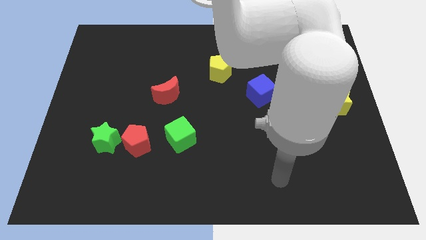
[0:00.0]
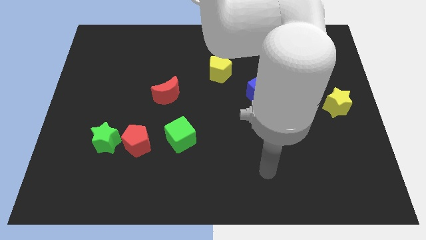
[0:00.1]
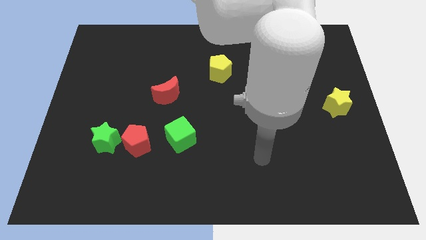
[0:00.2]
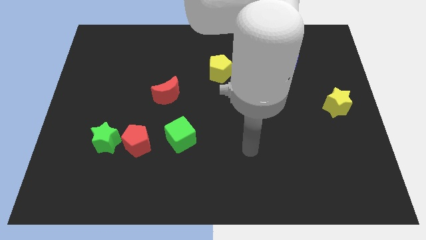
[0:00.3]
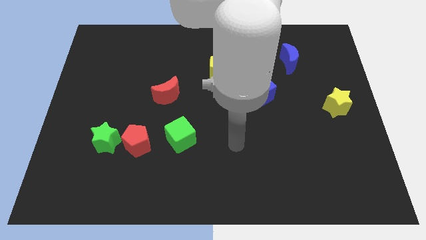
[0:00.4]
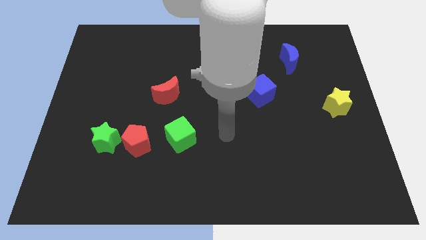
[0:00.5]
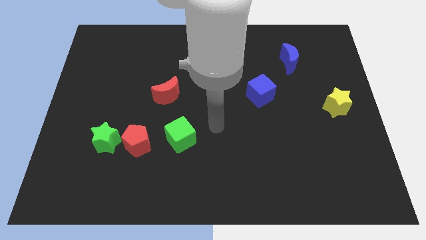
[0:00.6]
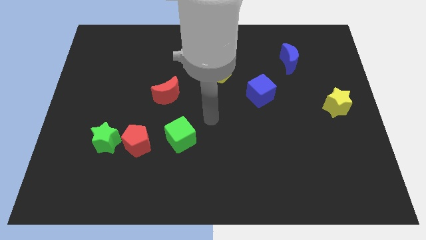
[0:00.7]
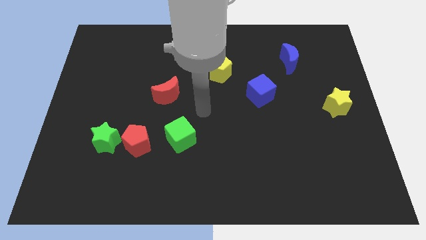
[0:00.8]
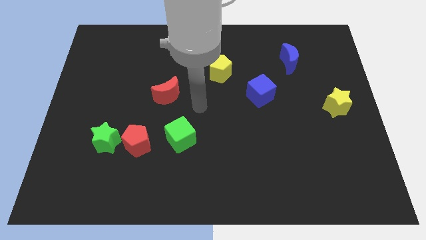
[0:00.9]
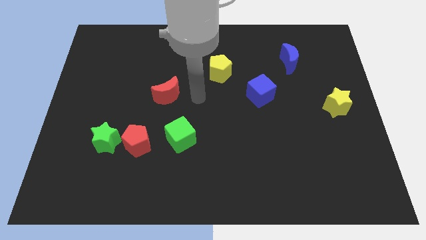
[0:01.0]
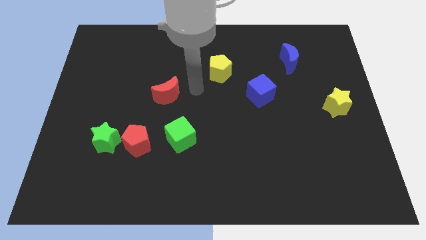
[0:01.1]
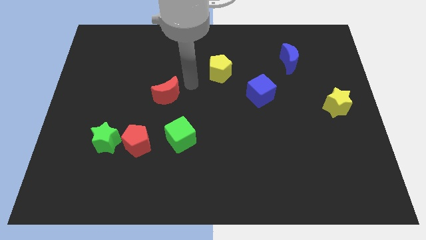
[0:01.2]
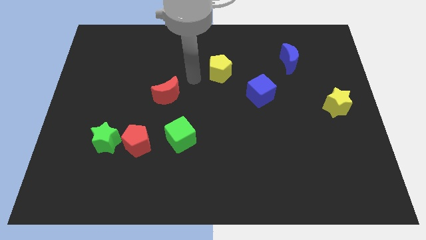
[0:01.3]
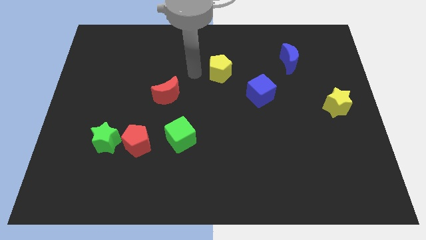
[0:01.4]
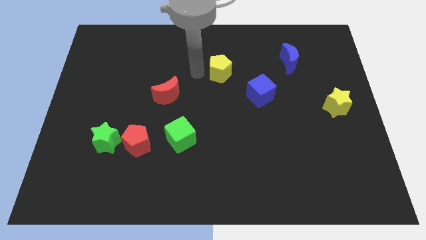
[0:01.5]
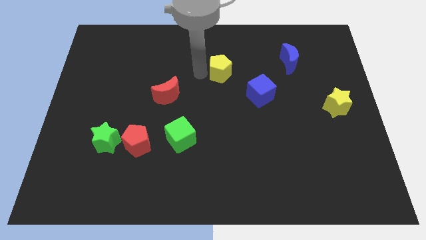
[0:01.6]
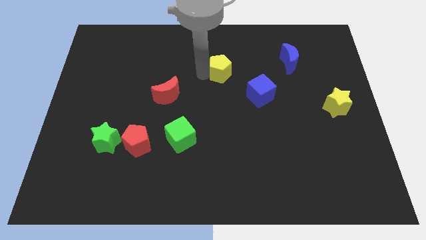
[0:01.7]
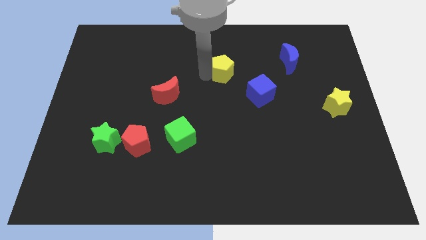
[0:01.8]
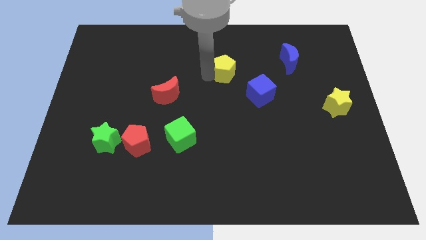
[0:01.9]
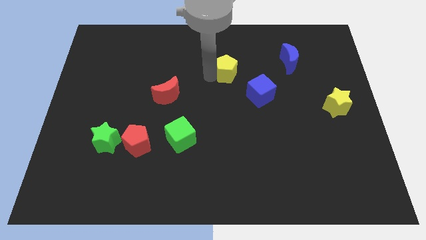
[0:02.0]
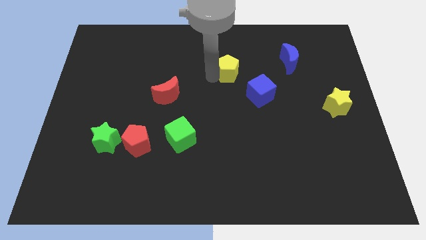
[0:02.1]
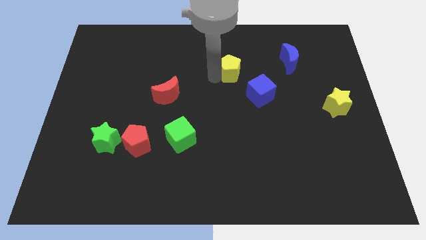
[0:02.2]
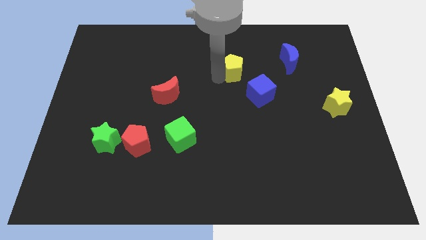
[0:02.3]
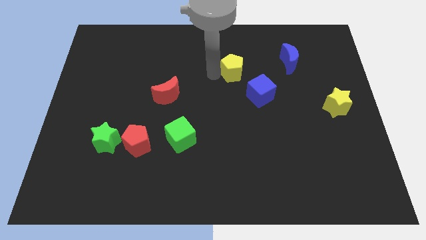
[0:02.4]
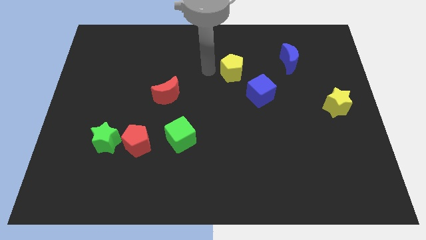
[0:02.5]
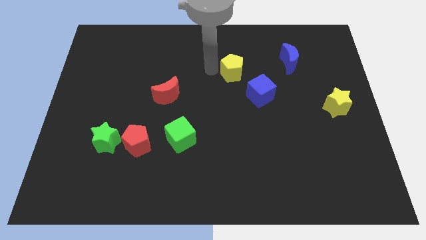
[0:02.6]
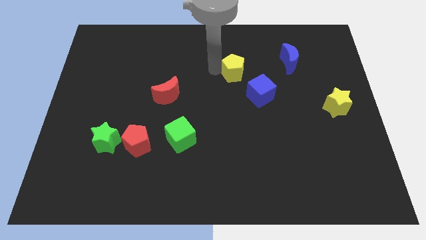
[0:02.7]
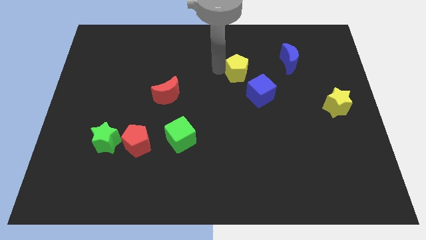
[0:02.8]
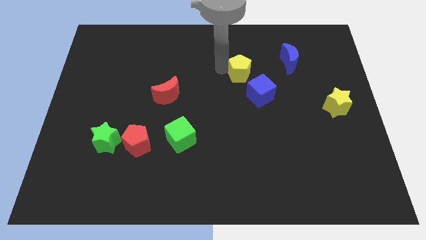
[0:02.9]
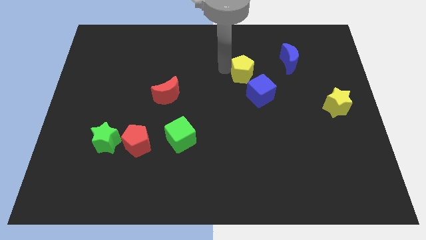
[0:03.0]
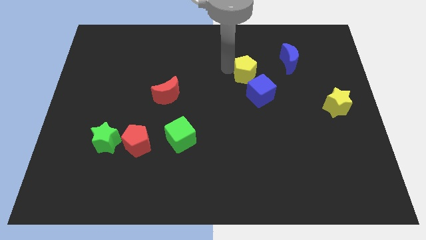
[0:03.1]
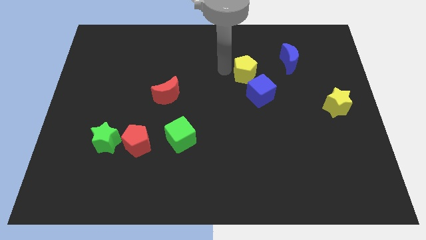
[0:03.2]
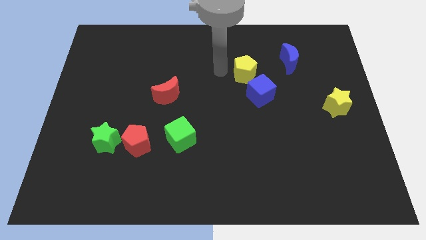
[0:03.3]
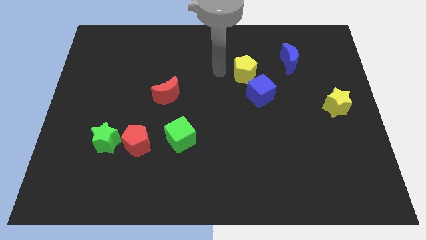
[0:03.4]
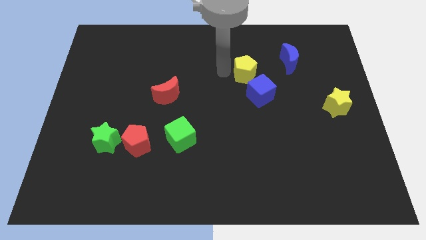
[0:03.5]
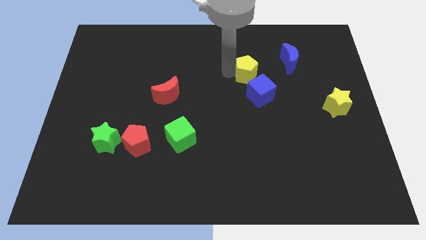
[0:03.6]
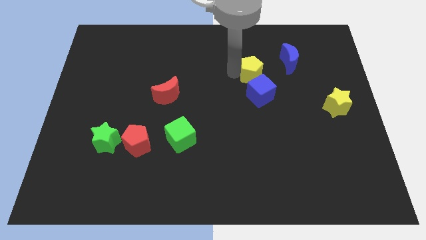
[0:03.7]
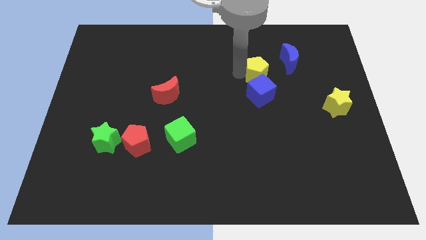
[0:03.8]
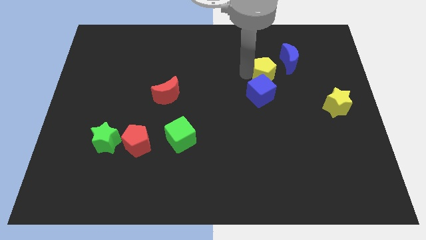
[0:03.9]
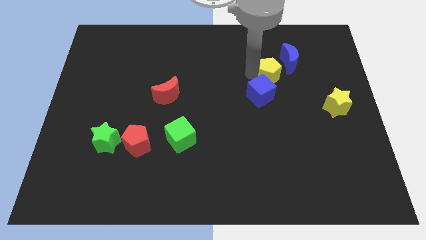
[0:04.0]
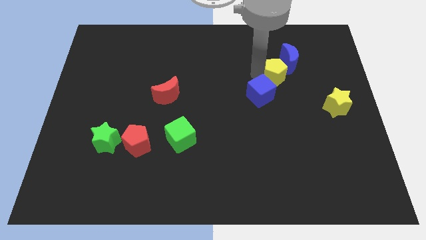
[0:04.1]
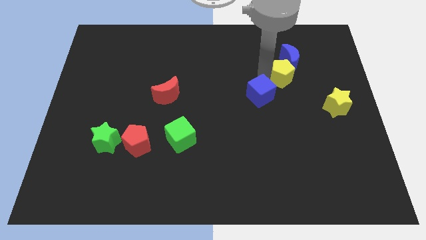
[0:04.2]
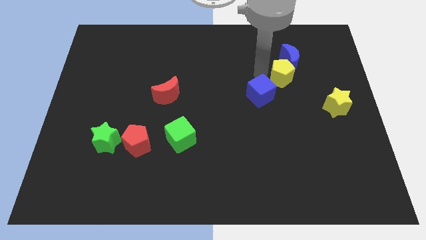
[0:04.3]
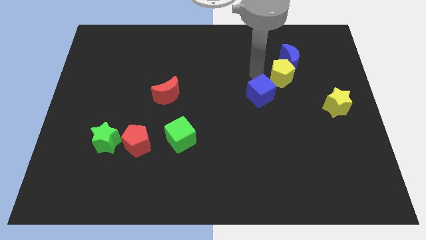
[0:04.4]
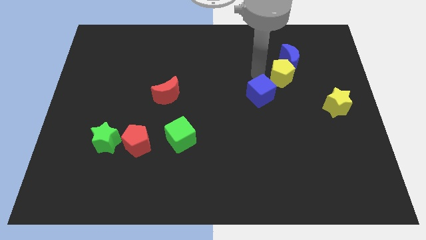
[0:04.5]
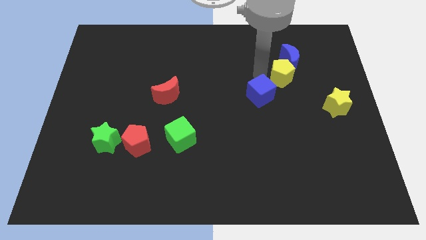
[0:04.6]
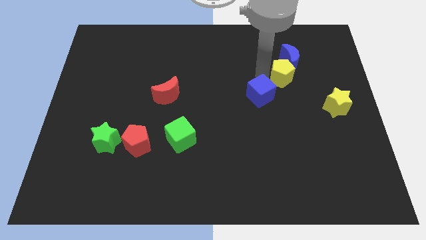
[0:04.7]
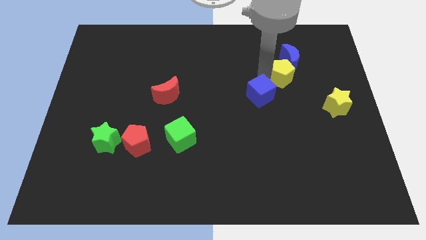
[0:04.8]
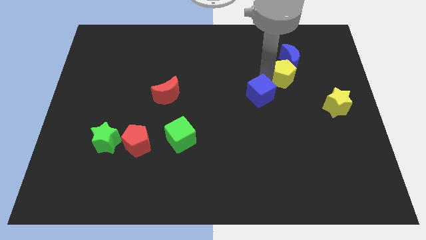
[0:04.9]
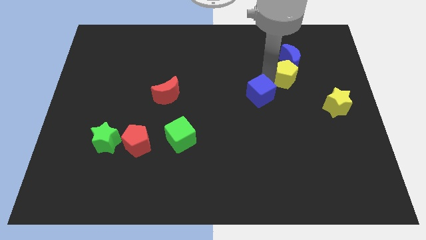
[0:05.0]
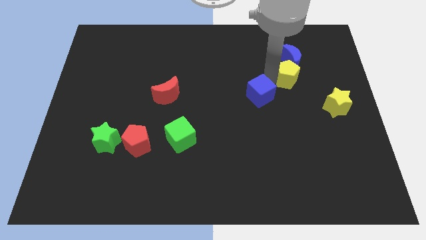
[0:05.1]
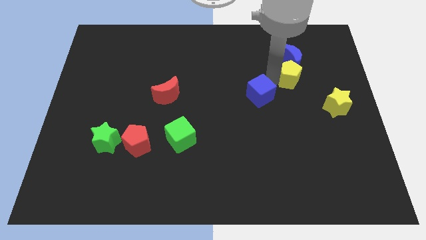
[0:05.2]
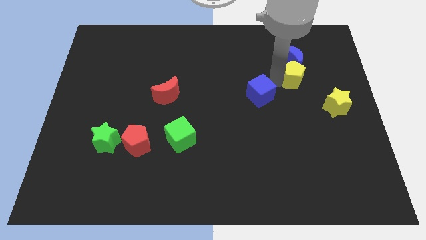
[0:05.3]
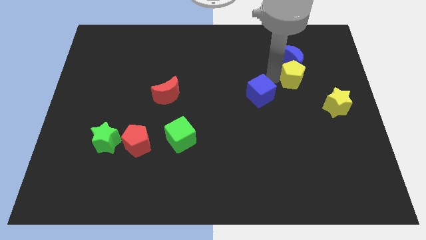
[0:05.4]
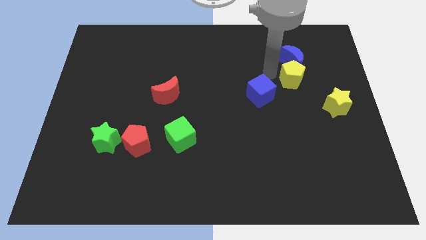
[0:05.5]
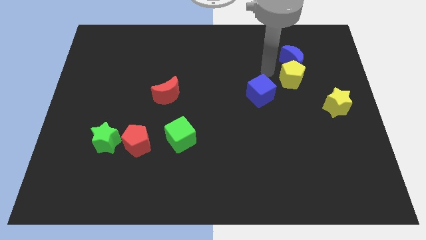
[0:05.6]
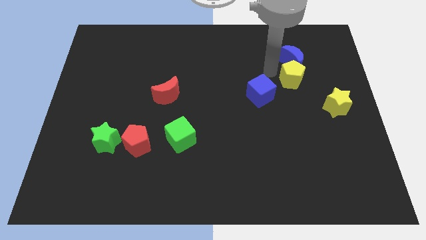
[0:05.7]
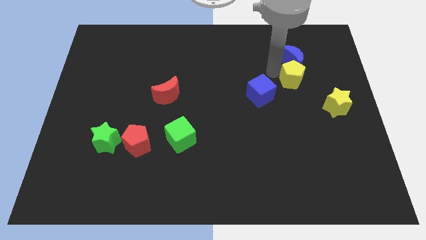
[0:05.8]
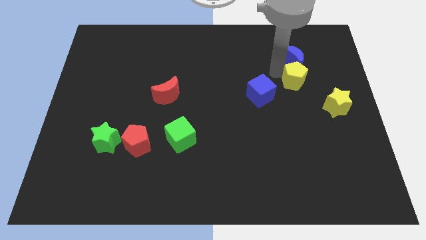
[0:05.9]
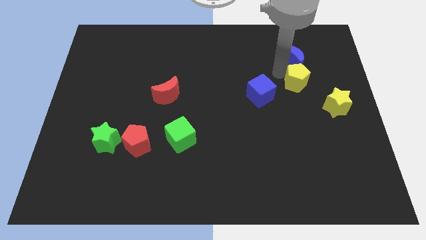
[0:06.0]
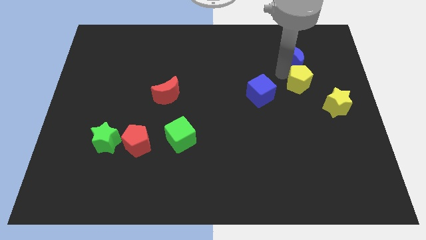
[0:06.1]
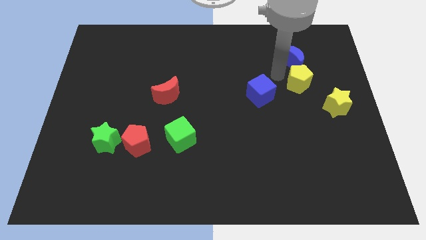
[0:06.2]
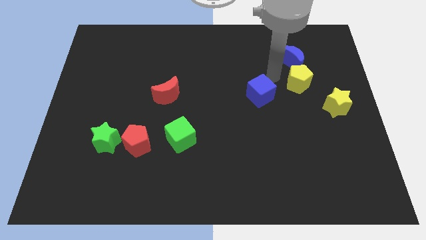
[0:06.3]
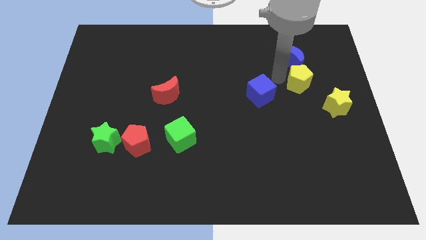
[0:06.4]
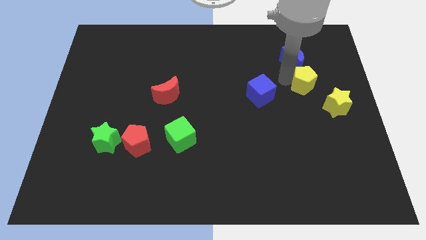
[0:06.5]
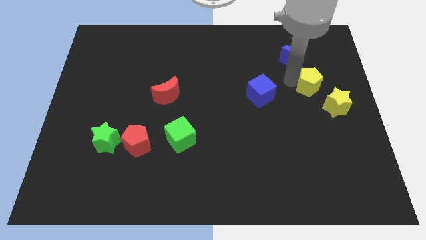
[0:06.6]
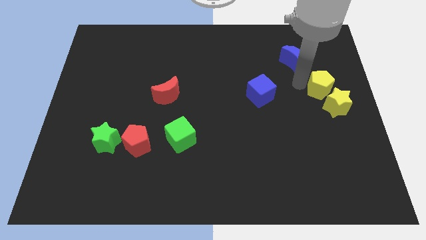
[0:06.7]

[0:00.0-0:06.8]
slide the yellow pentagon to the right side of the board
